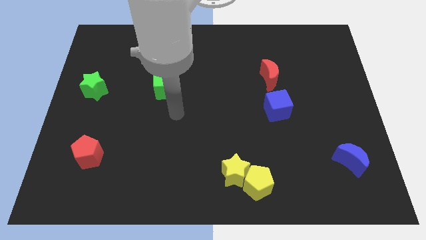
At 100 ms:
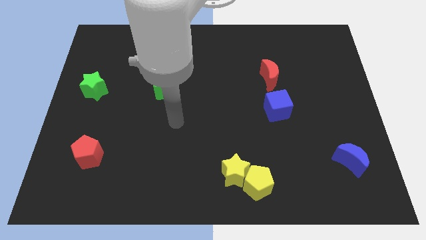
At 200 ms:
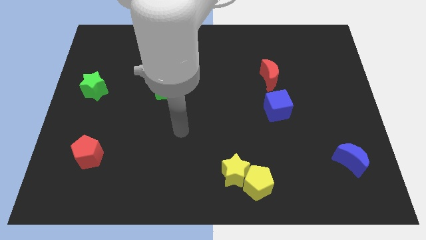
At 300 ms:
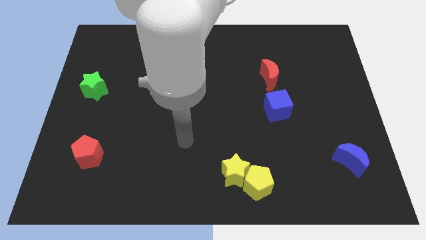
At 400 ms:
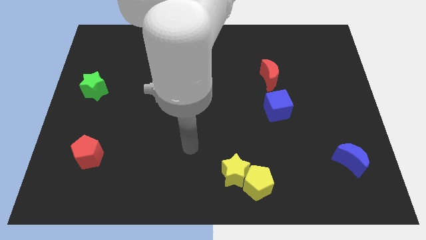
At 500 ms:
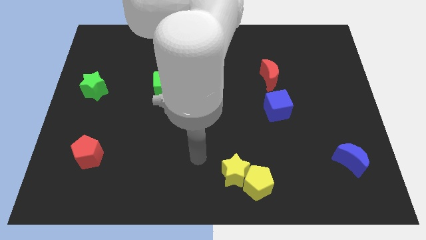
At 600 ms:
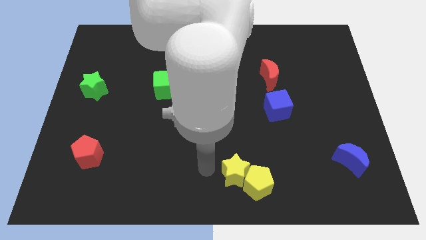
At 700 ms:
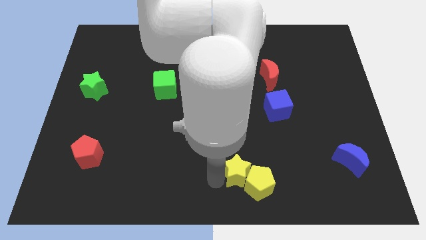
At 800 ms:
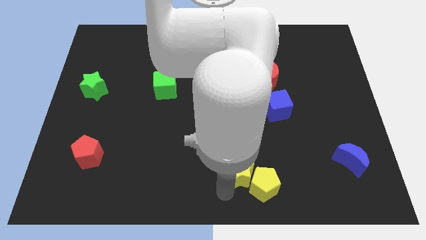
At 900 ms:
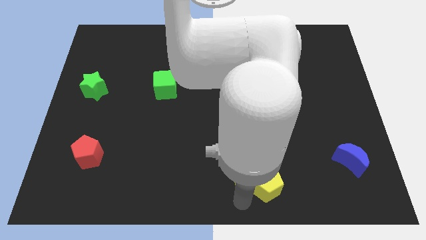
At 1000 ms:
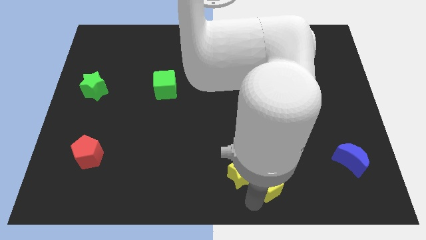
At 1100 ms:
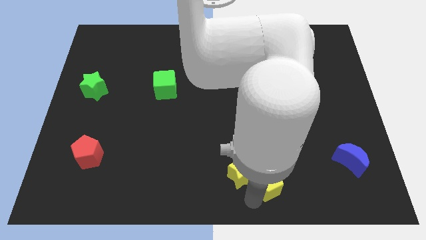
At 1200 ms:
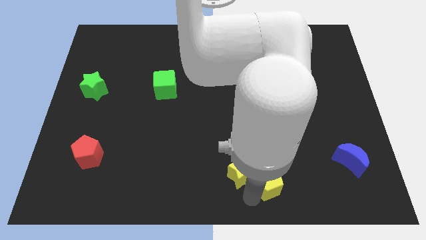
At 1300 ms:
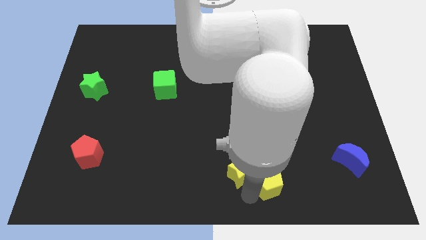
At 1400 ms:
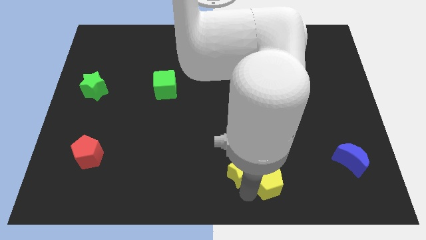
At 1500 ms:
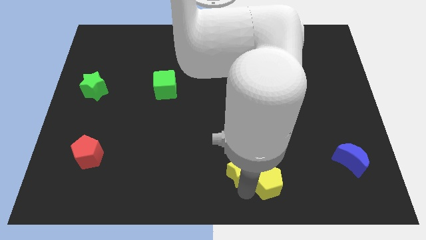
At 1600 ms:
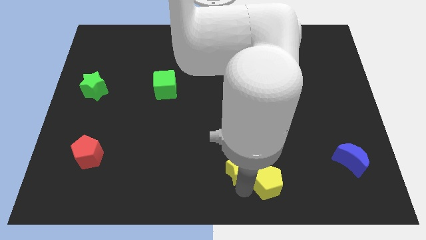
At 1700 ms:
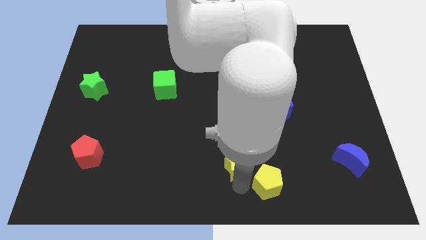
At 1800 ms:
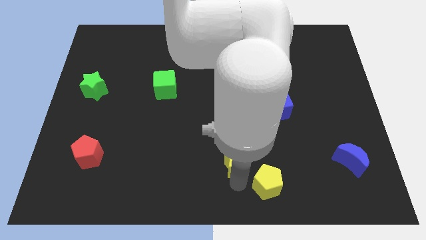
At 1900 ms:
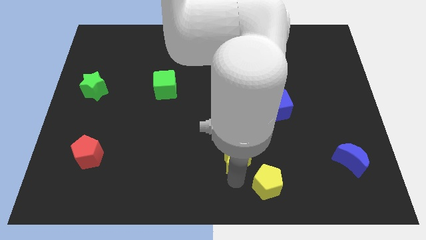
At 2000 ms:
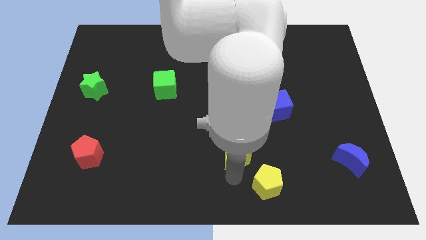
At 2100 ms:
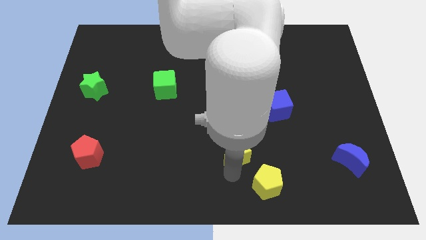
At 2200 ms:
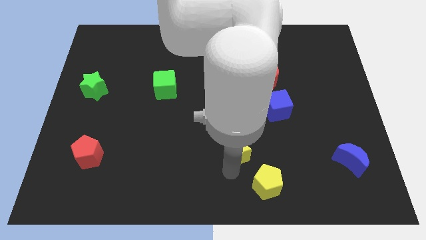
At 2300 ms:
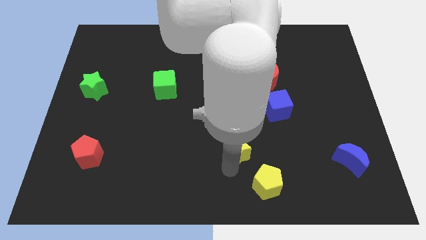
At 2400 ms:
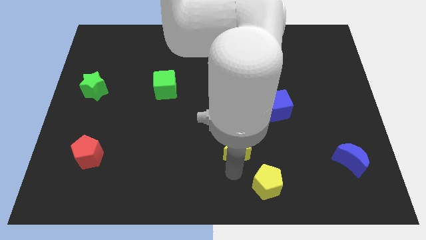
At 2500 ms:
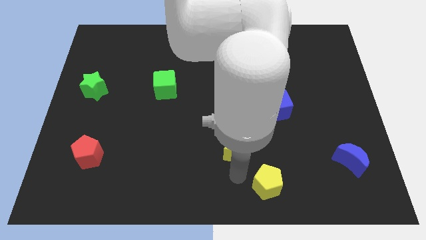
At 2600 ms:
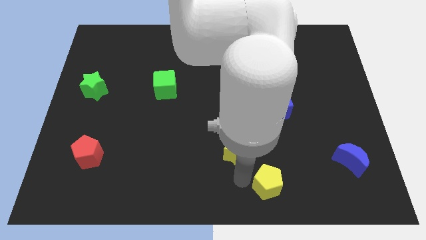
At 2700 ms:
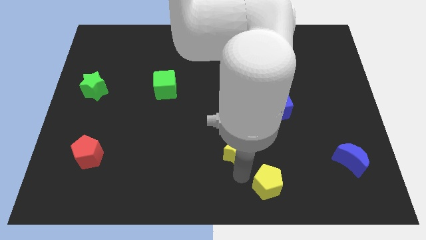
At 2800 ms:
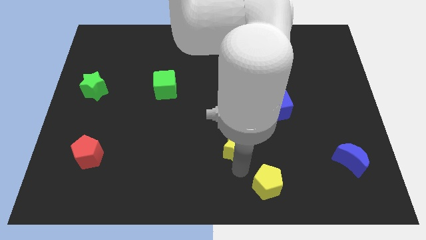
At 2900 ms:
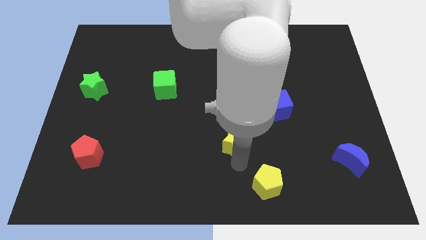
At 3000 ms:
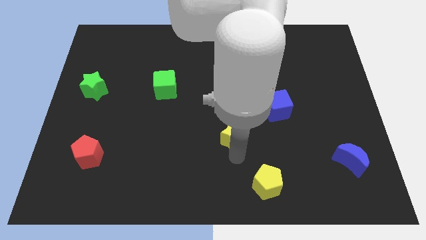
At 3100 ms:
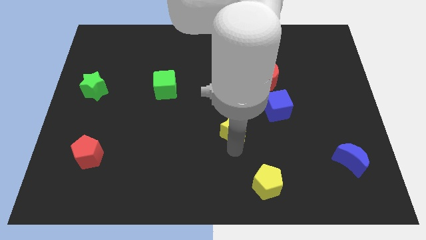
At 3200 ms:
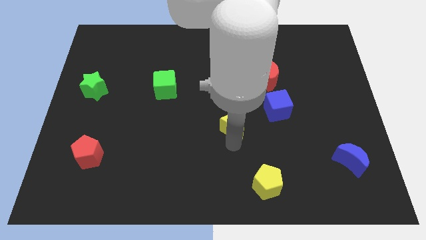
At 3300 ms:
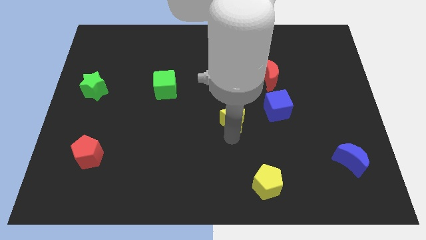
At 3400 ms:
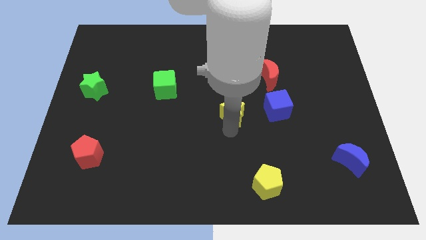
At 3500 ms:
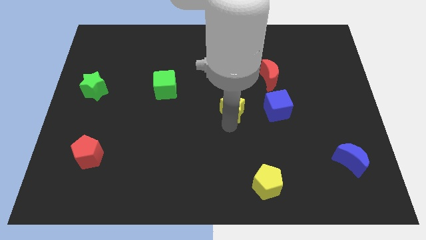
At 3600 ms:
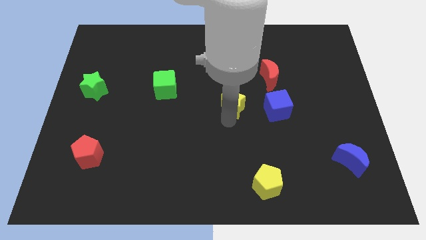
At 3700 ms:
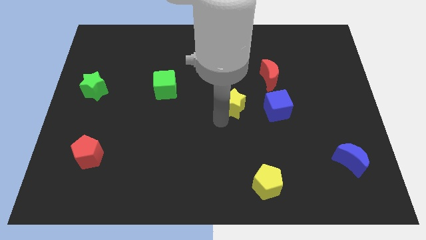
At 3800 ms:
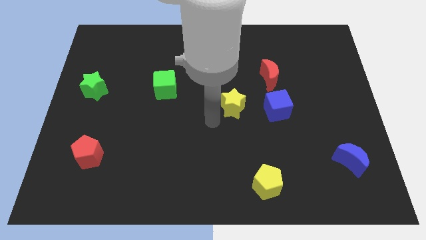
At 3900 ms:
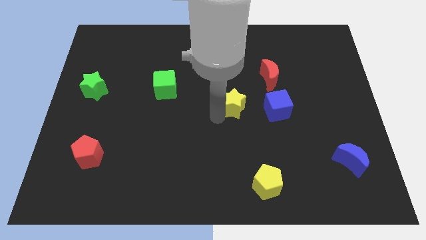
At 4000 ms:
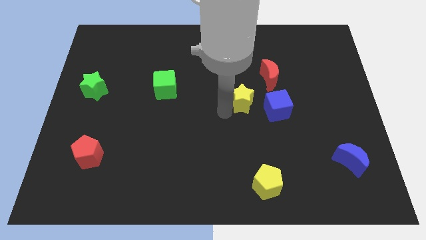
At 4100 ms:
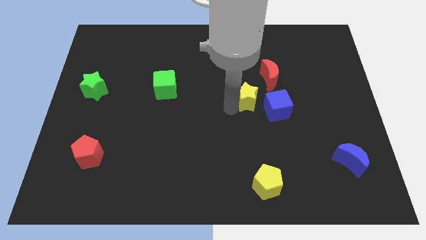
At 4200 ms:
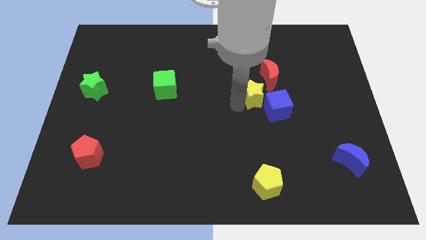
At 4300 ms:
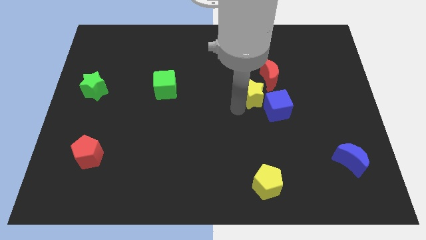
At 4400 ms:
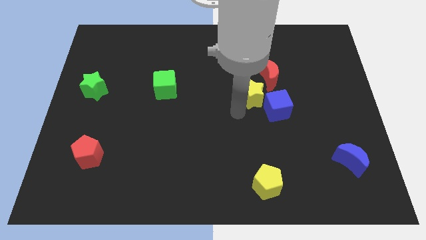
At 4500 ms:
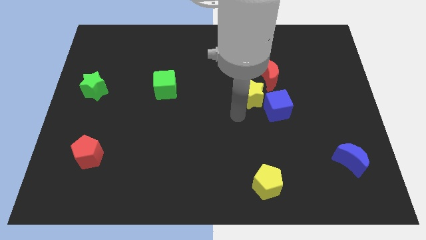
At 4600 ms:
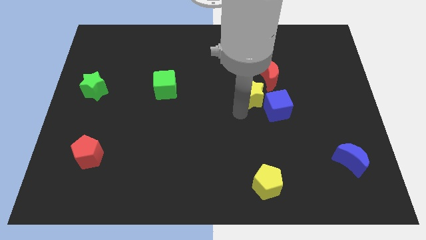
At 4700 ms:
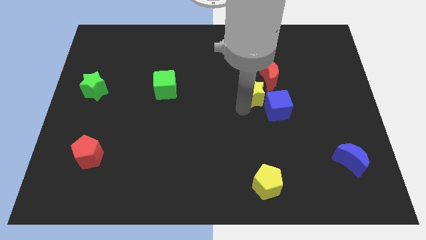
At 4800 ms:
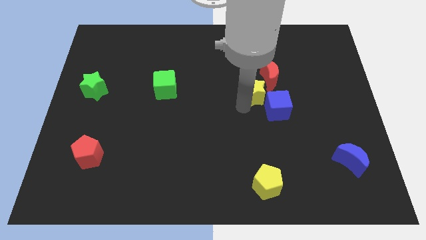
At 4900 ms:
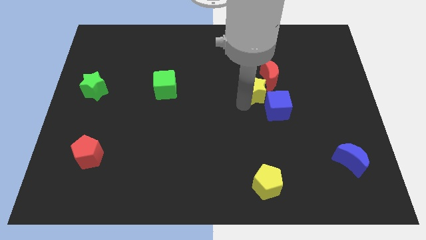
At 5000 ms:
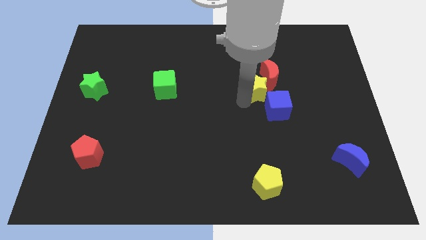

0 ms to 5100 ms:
move the yellow star towards the red moon

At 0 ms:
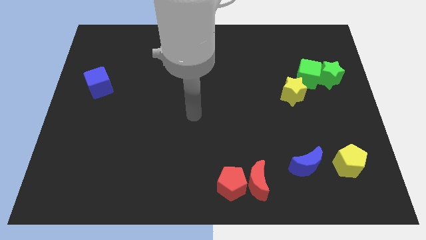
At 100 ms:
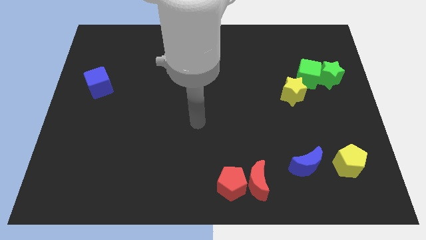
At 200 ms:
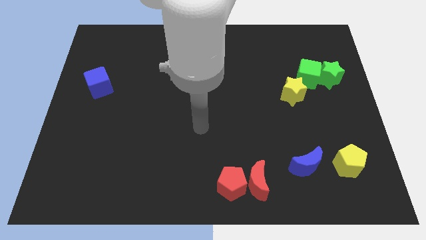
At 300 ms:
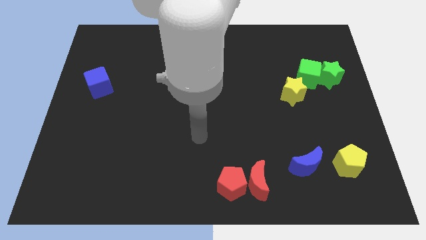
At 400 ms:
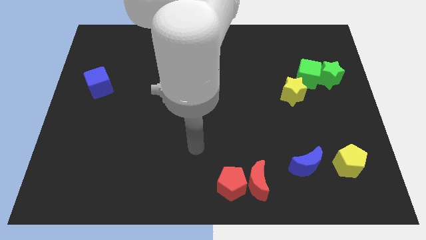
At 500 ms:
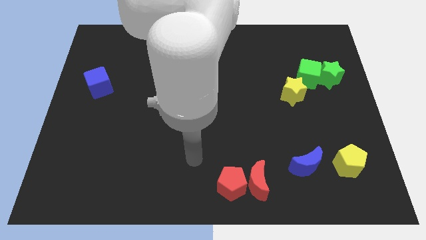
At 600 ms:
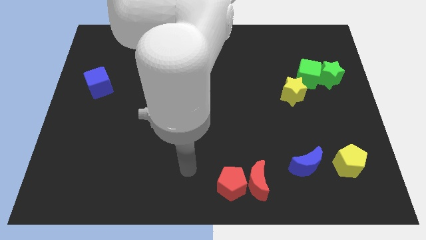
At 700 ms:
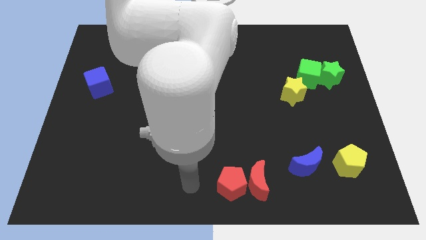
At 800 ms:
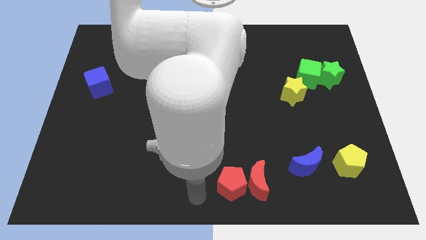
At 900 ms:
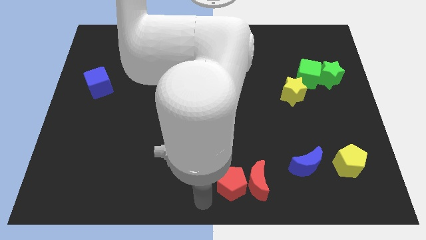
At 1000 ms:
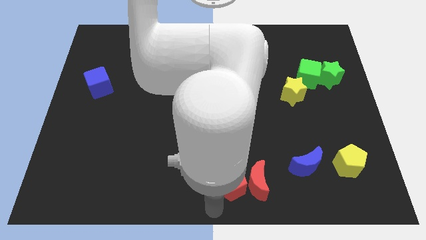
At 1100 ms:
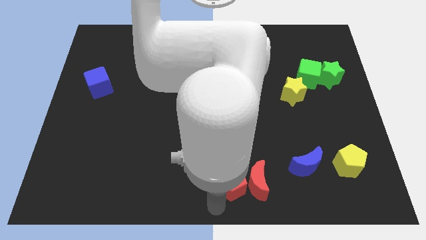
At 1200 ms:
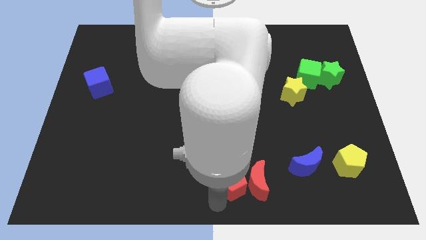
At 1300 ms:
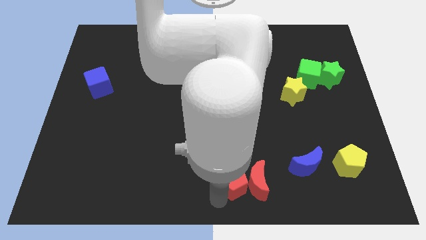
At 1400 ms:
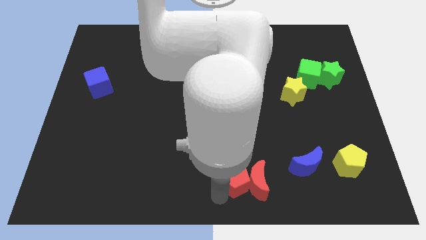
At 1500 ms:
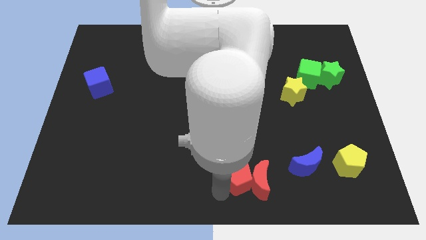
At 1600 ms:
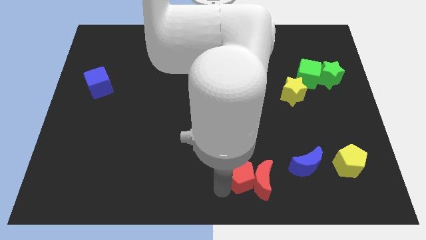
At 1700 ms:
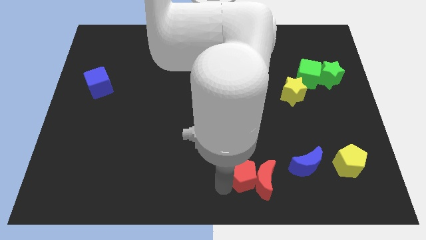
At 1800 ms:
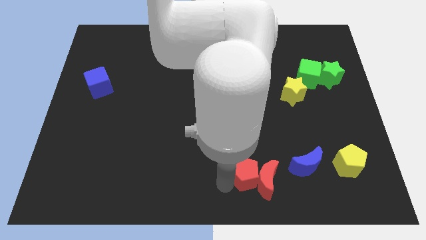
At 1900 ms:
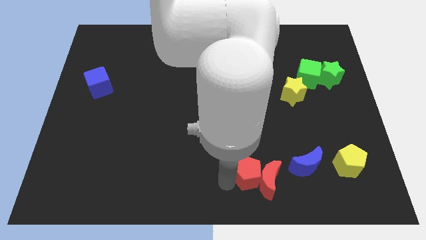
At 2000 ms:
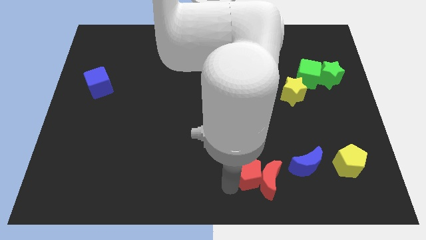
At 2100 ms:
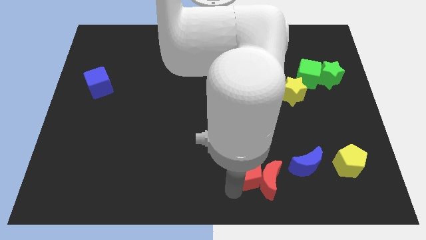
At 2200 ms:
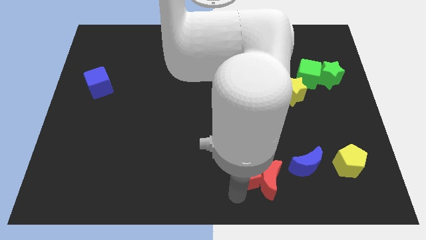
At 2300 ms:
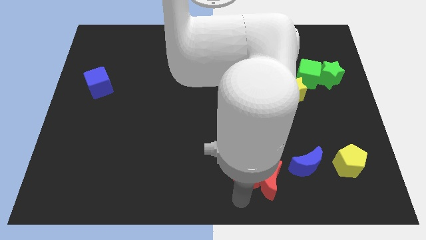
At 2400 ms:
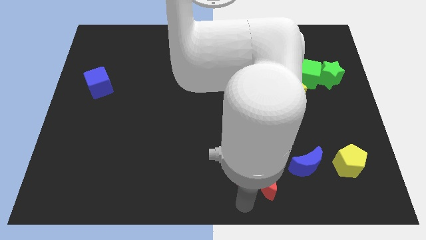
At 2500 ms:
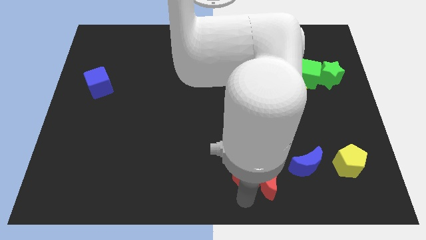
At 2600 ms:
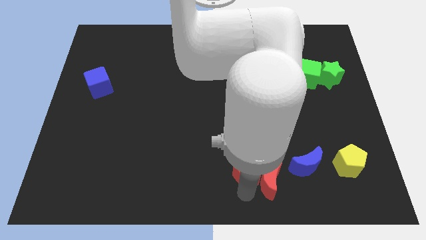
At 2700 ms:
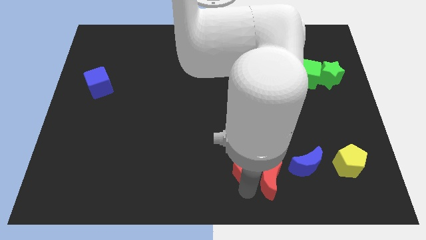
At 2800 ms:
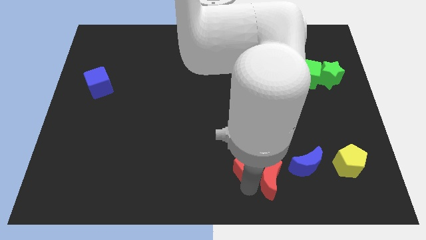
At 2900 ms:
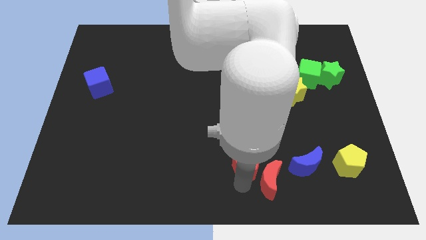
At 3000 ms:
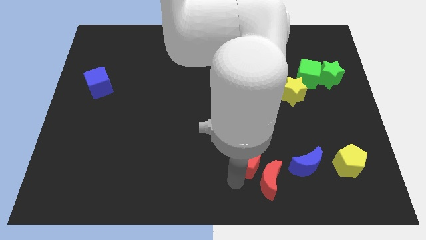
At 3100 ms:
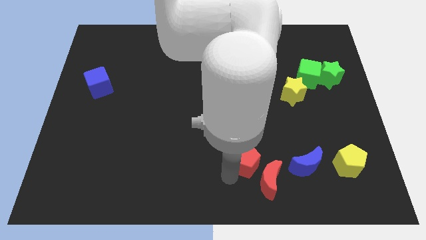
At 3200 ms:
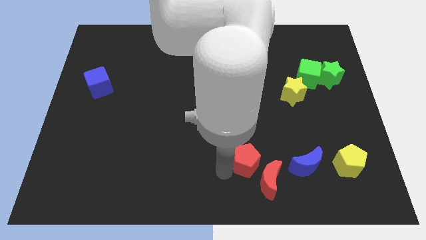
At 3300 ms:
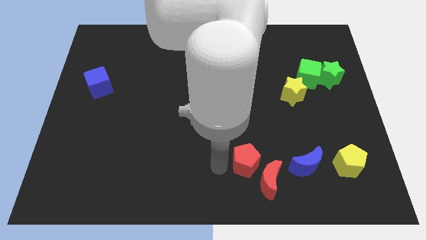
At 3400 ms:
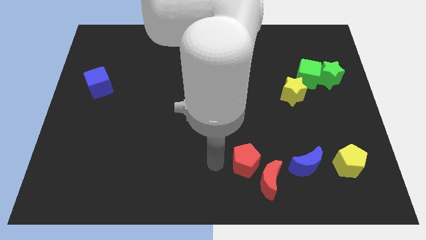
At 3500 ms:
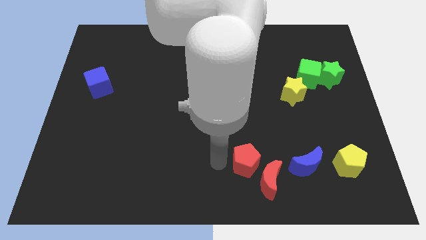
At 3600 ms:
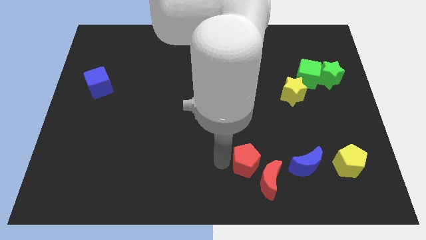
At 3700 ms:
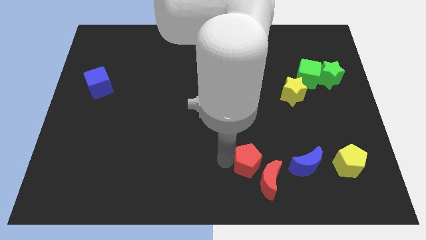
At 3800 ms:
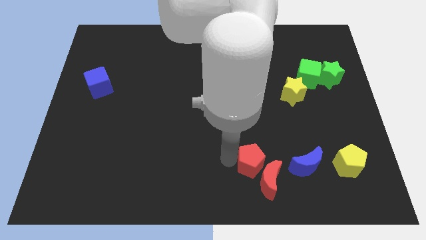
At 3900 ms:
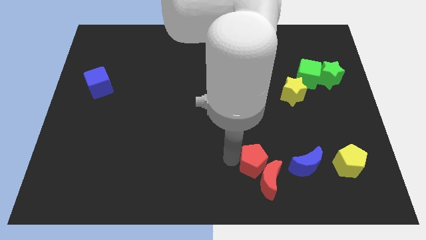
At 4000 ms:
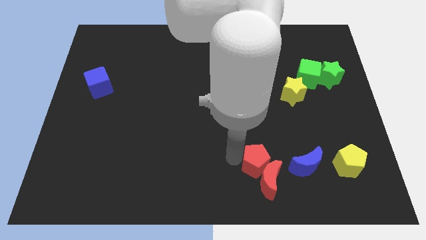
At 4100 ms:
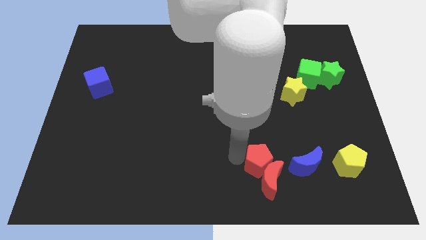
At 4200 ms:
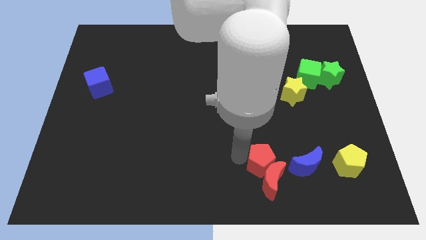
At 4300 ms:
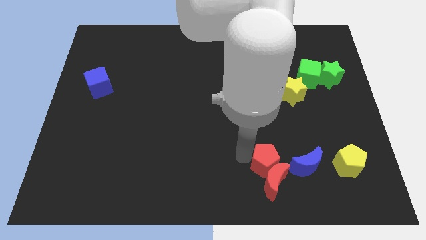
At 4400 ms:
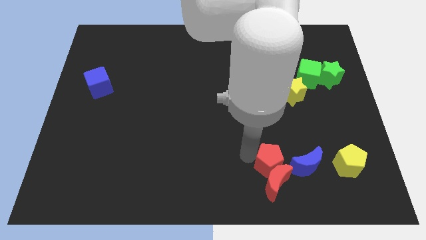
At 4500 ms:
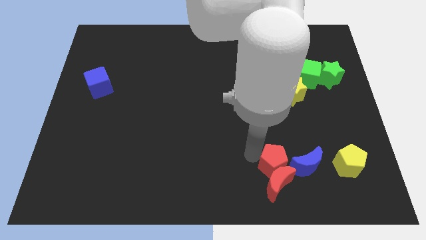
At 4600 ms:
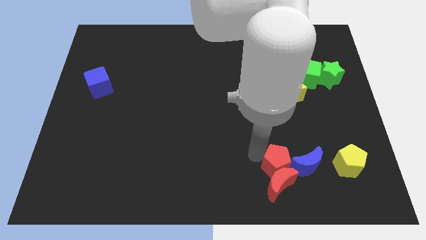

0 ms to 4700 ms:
put the red pentagon to the blue moon
